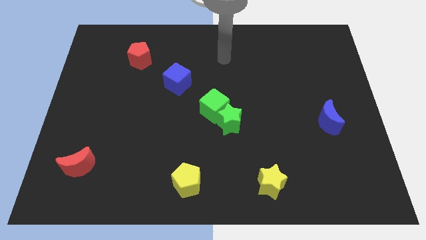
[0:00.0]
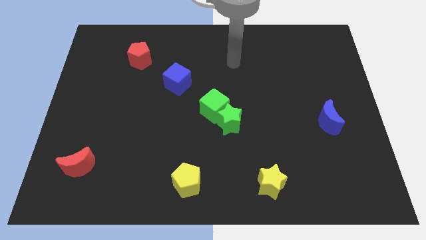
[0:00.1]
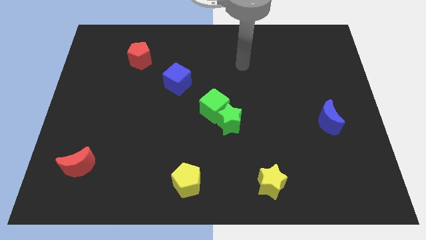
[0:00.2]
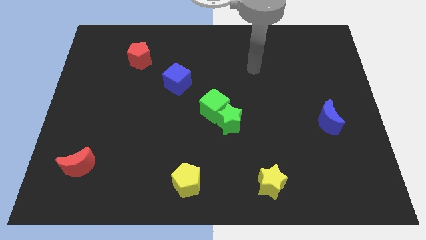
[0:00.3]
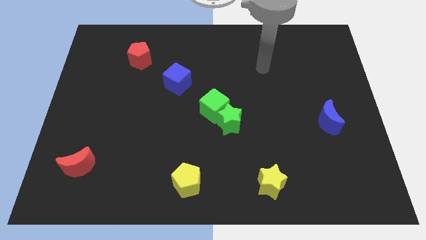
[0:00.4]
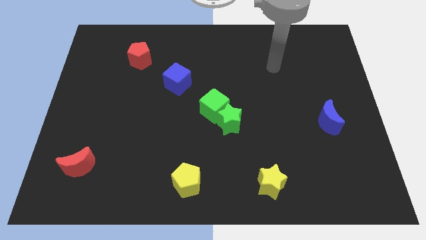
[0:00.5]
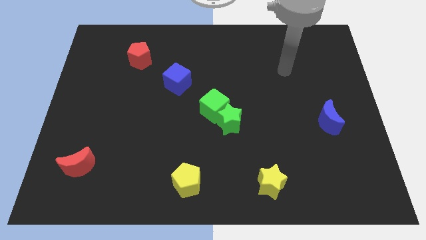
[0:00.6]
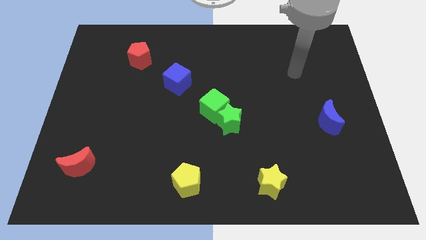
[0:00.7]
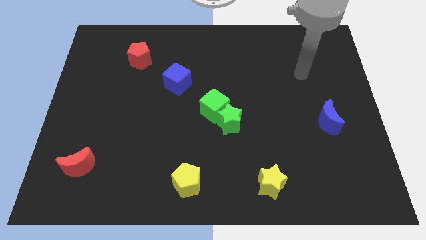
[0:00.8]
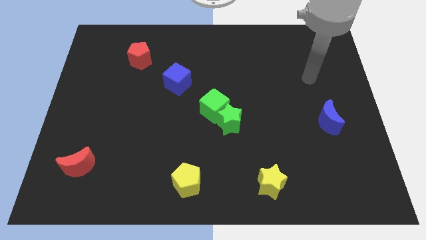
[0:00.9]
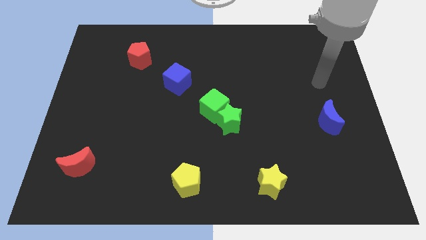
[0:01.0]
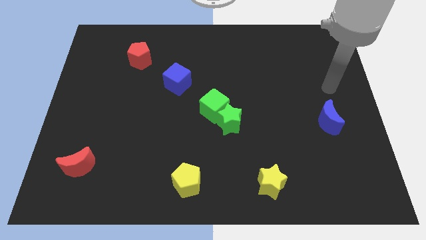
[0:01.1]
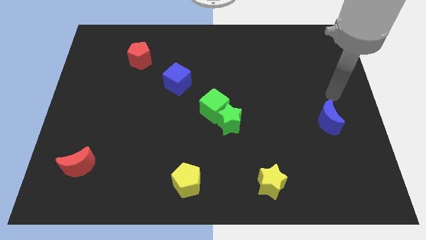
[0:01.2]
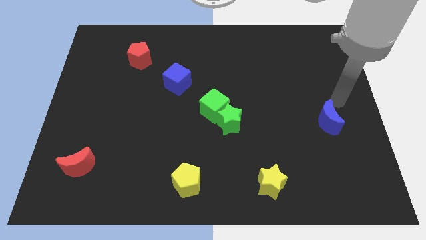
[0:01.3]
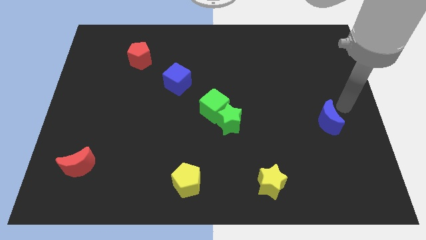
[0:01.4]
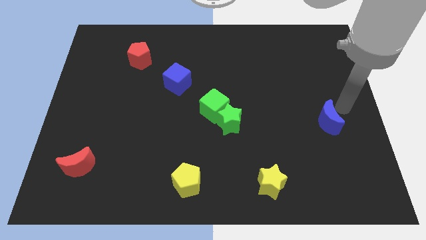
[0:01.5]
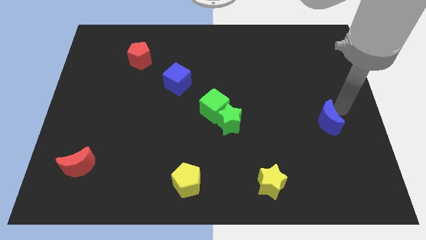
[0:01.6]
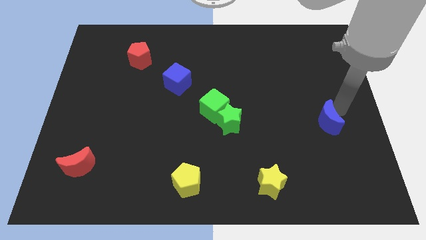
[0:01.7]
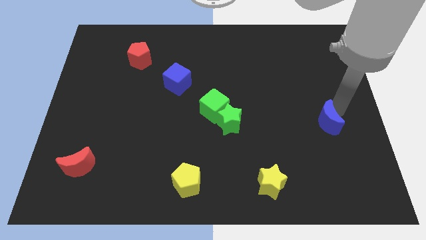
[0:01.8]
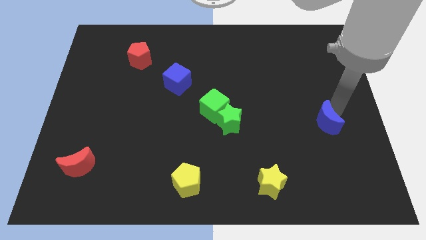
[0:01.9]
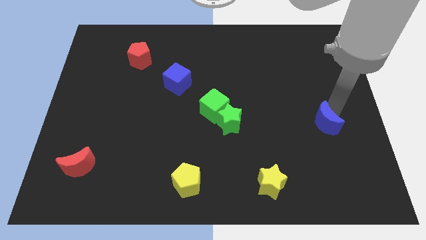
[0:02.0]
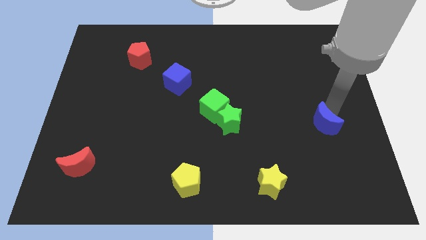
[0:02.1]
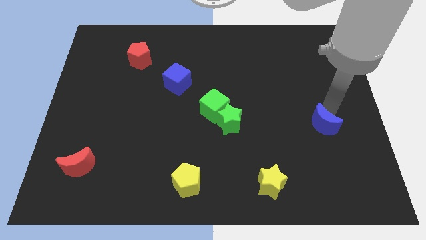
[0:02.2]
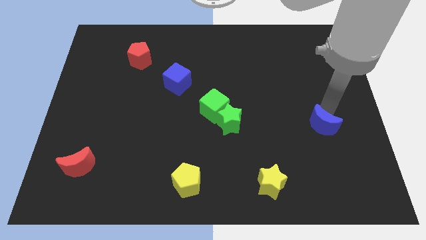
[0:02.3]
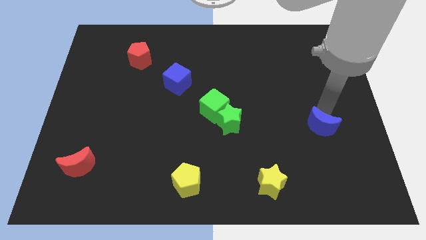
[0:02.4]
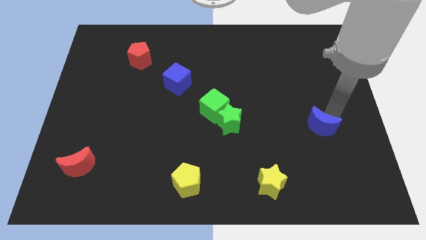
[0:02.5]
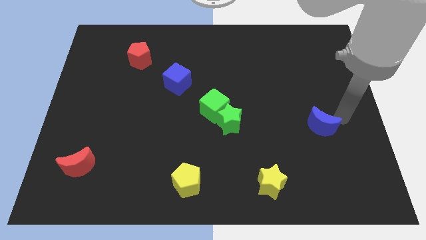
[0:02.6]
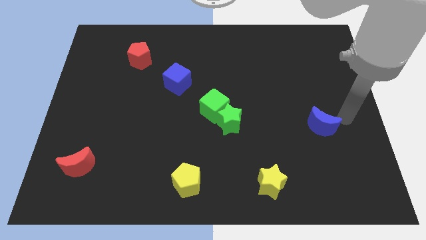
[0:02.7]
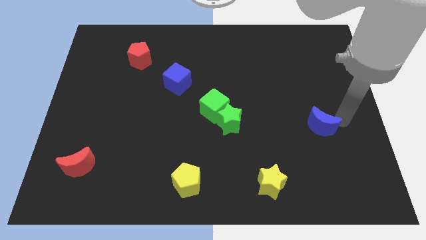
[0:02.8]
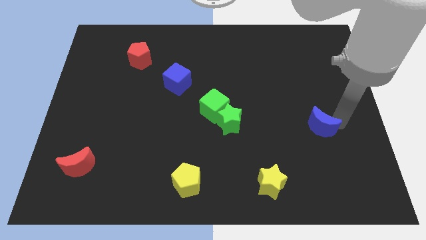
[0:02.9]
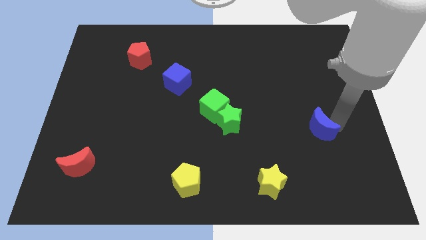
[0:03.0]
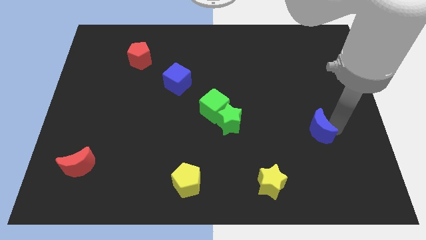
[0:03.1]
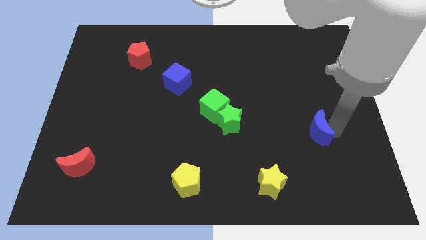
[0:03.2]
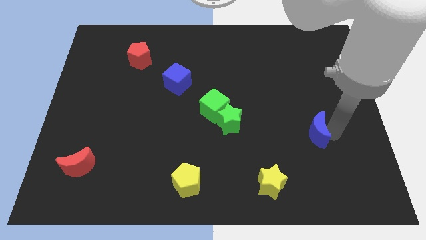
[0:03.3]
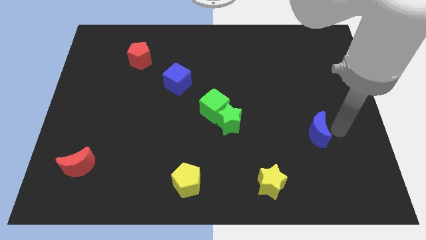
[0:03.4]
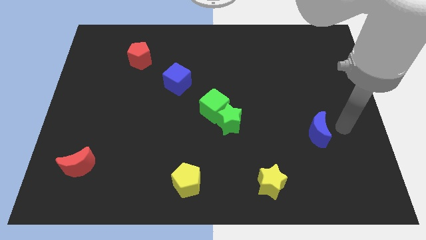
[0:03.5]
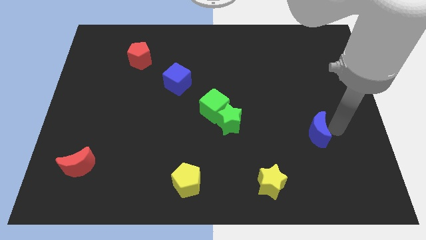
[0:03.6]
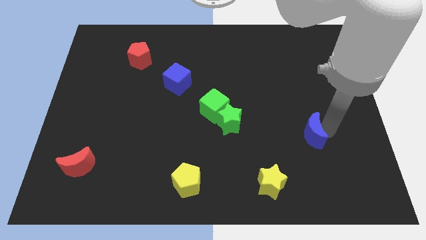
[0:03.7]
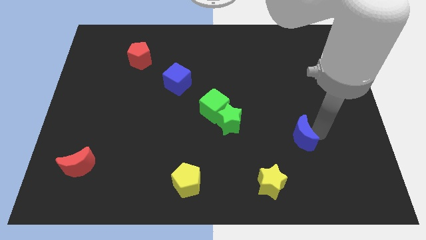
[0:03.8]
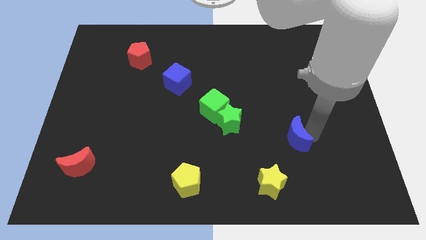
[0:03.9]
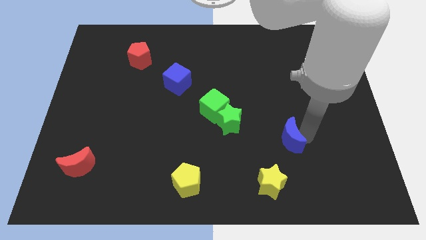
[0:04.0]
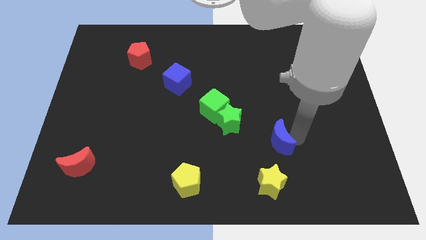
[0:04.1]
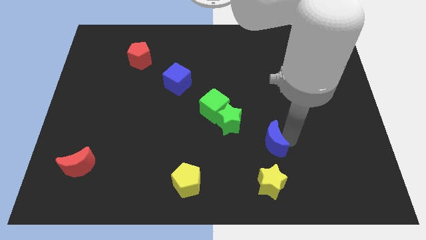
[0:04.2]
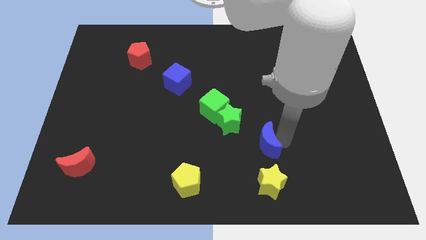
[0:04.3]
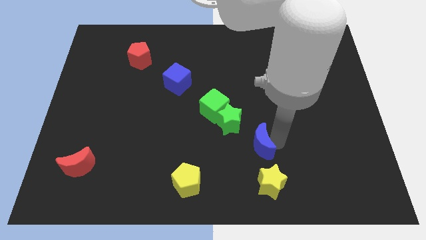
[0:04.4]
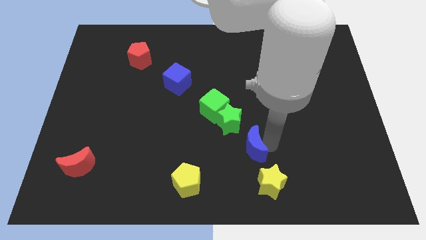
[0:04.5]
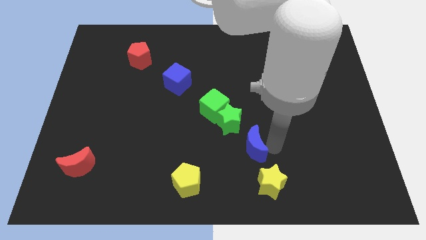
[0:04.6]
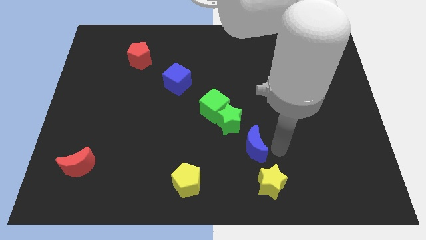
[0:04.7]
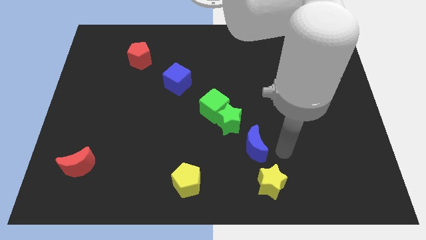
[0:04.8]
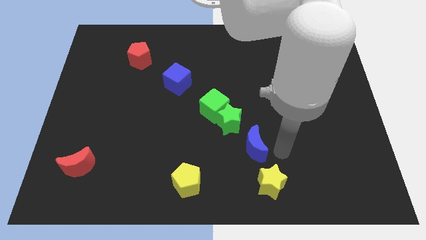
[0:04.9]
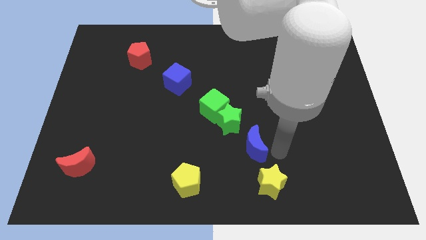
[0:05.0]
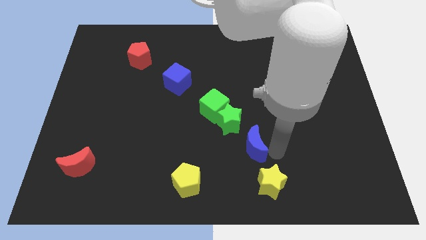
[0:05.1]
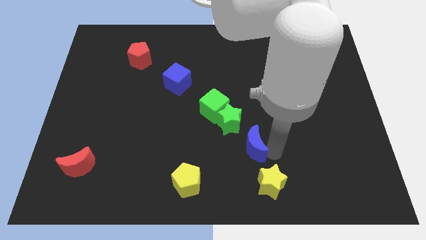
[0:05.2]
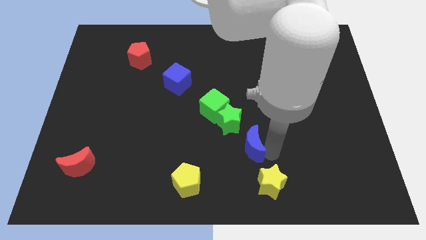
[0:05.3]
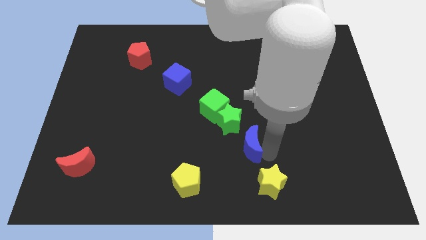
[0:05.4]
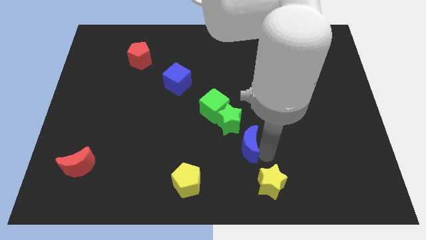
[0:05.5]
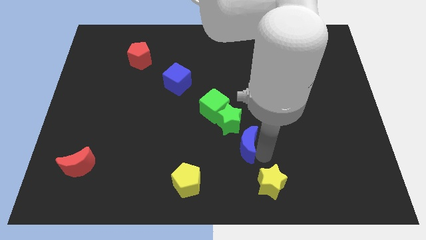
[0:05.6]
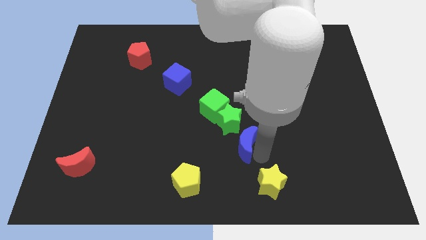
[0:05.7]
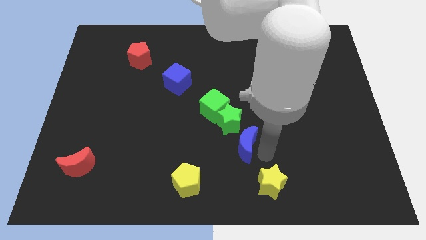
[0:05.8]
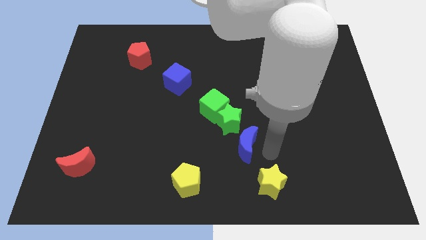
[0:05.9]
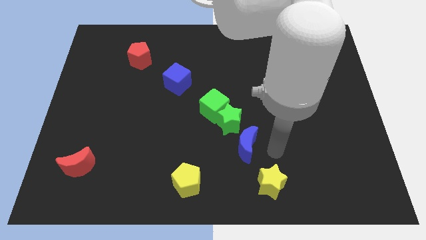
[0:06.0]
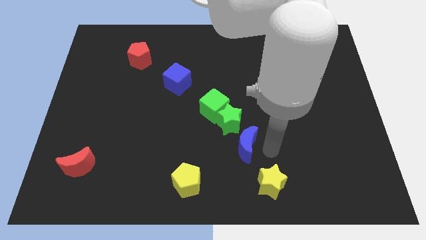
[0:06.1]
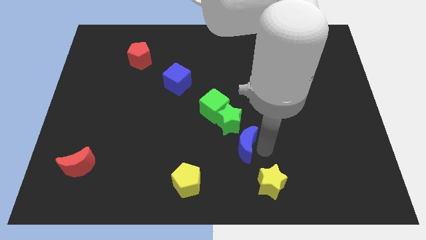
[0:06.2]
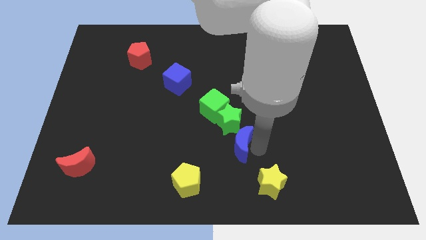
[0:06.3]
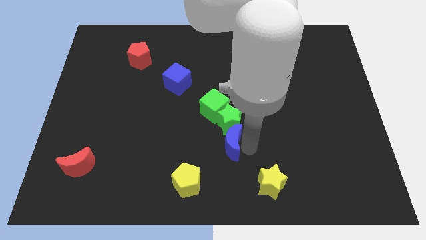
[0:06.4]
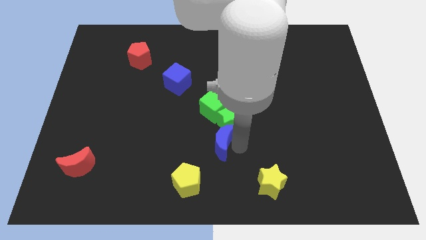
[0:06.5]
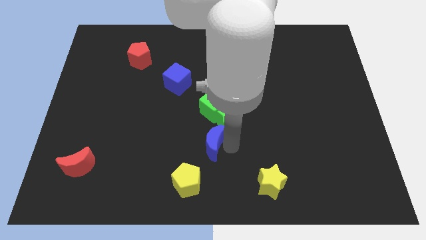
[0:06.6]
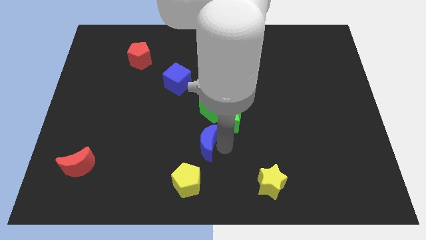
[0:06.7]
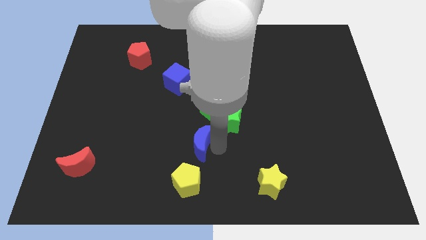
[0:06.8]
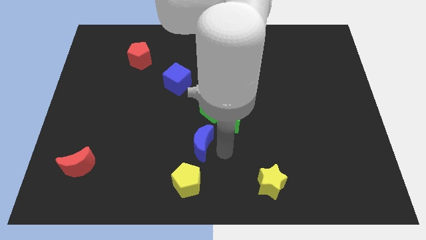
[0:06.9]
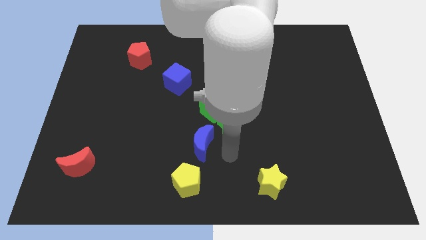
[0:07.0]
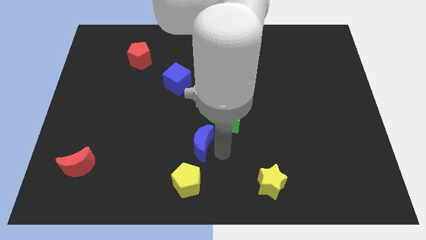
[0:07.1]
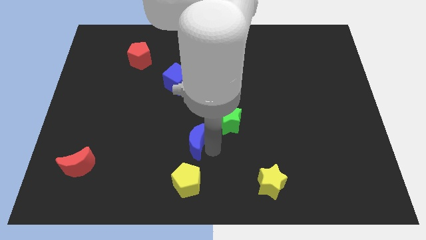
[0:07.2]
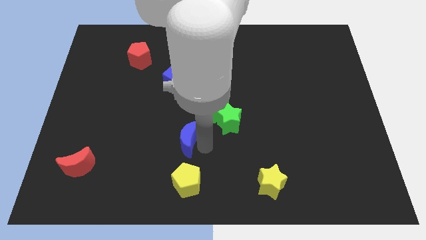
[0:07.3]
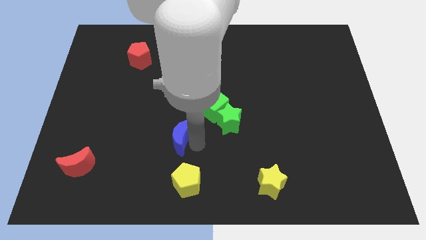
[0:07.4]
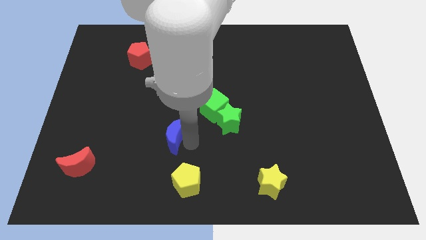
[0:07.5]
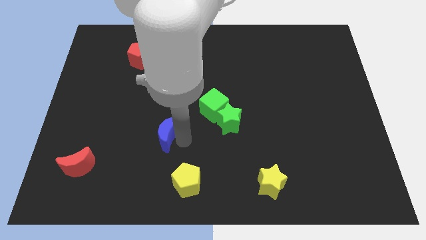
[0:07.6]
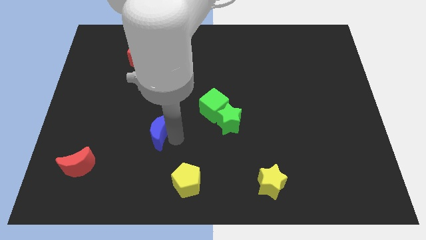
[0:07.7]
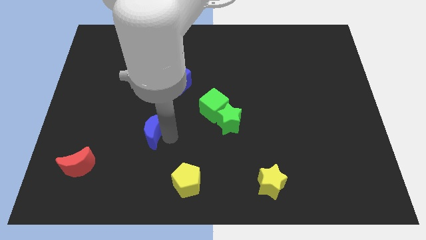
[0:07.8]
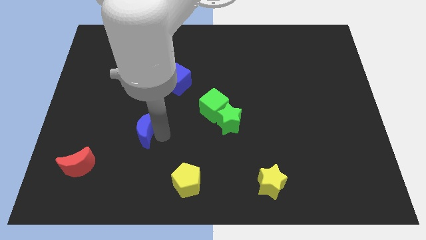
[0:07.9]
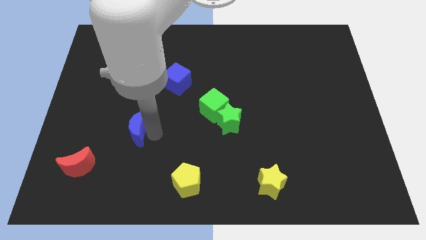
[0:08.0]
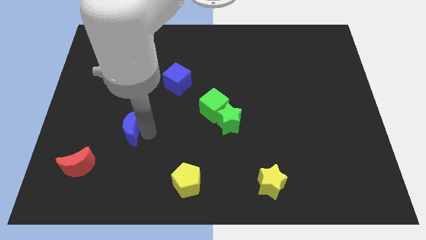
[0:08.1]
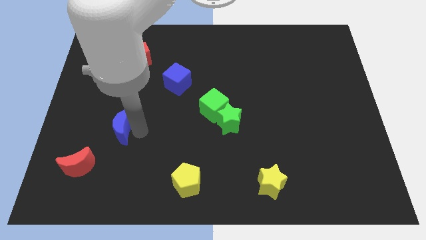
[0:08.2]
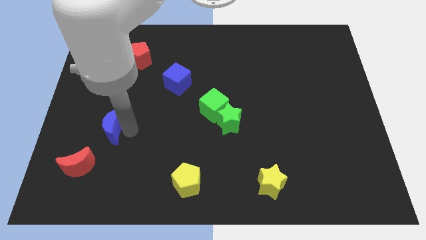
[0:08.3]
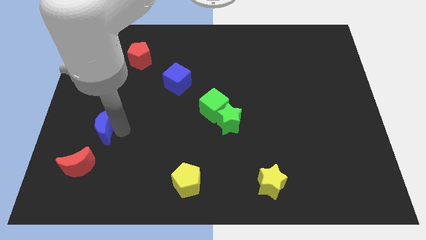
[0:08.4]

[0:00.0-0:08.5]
push the blue moon above the red moon
